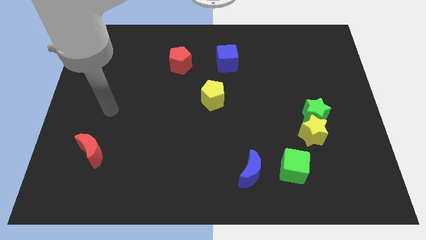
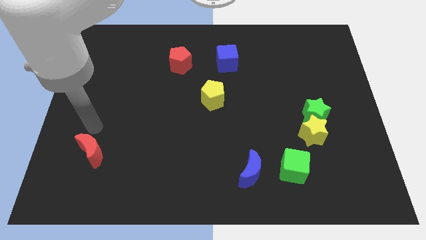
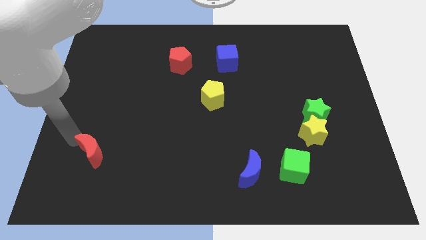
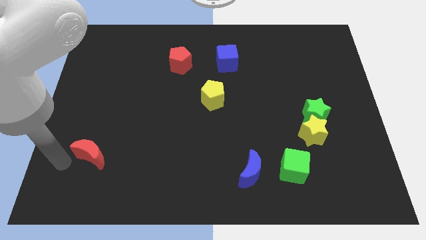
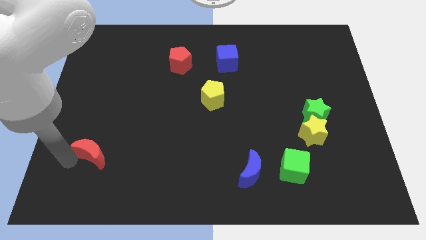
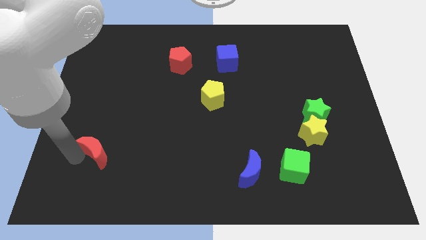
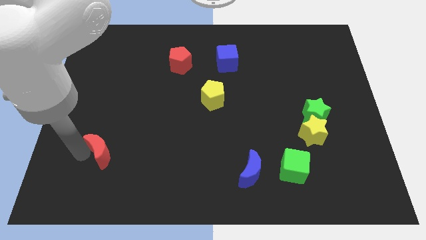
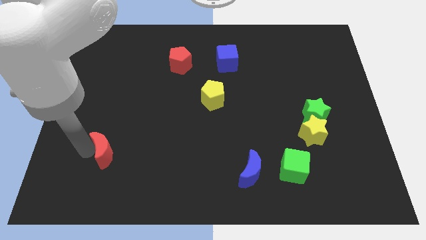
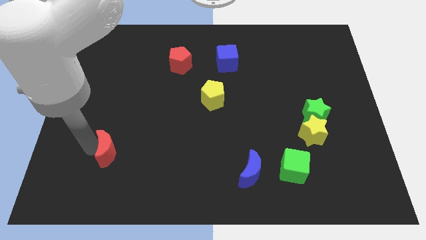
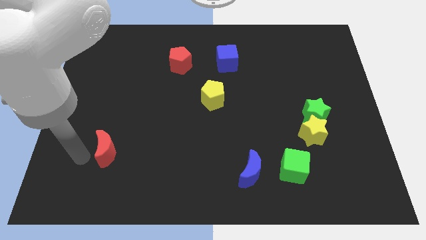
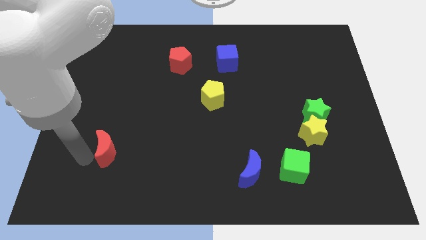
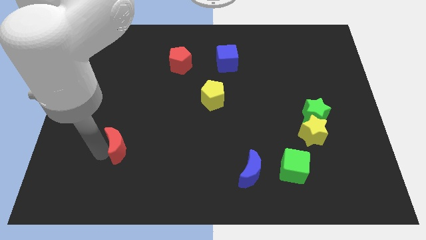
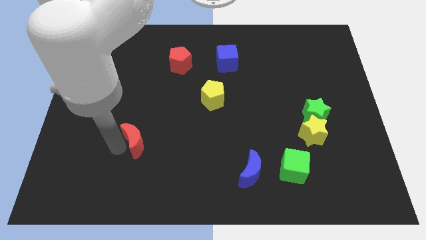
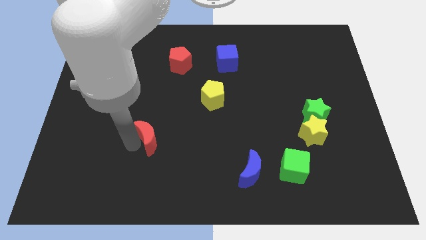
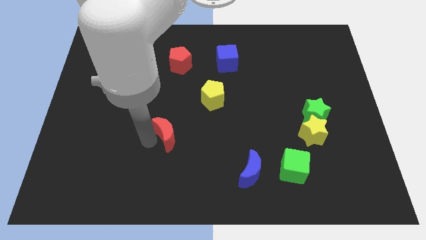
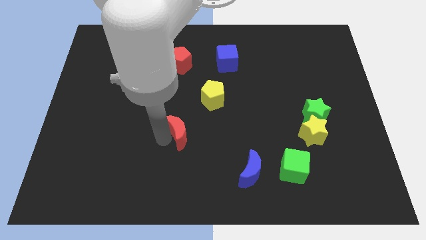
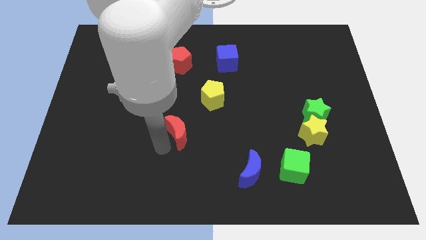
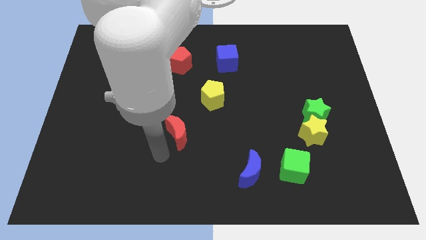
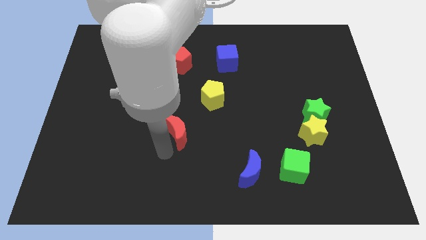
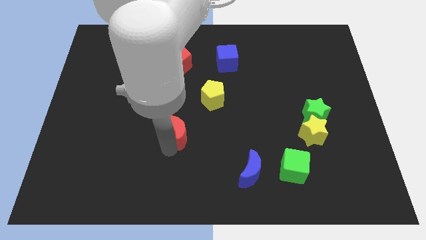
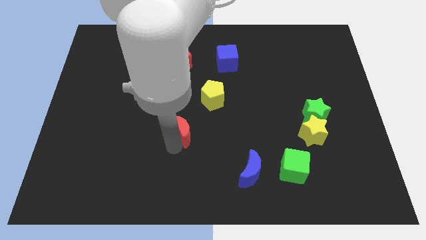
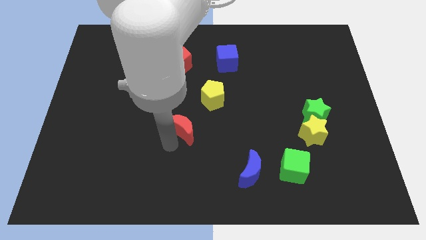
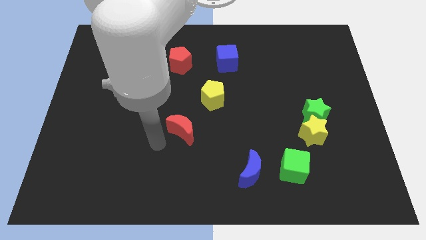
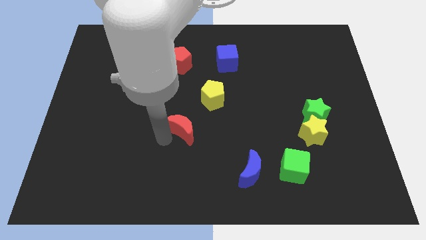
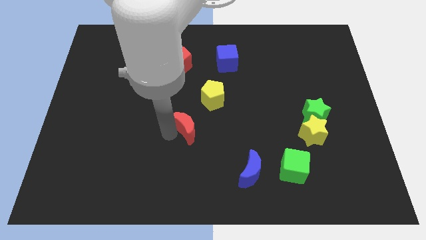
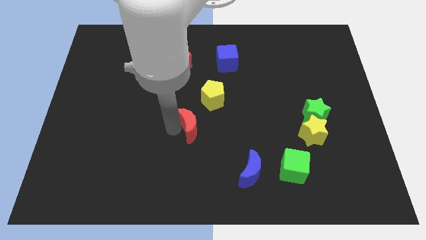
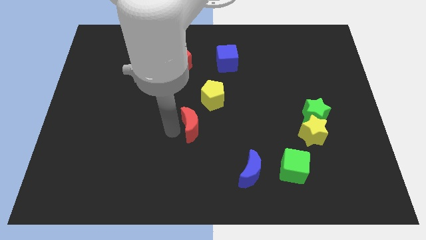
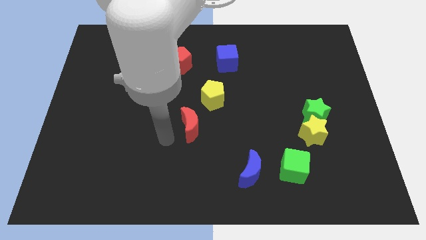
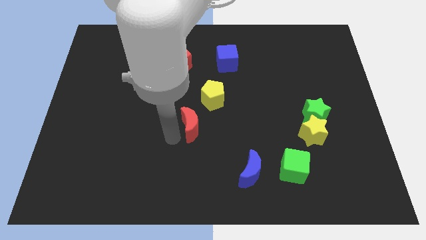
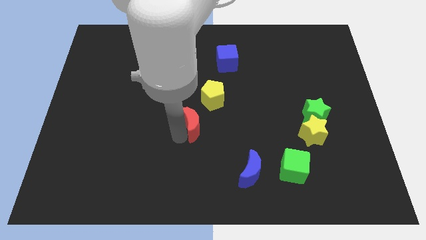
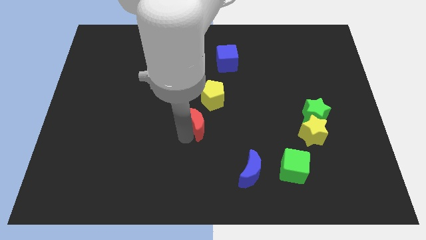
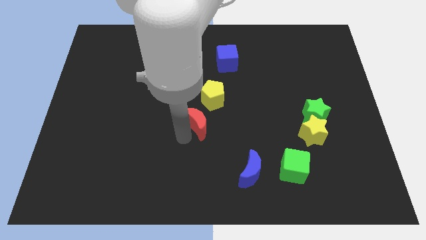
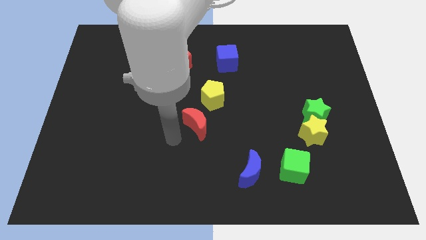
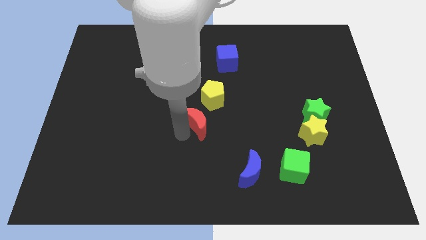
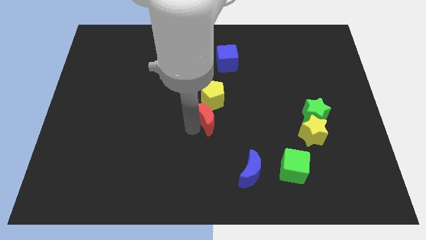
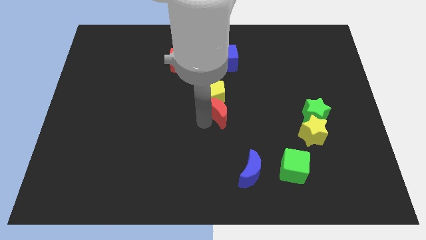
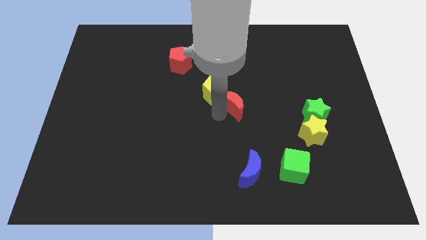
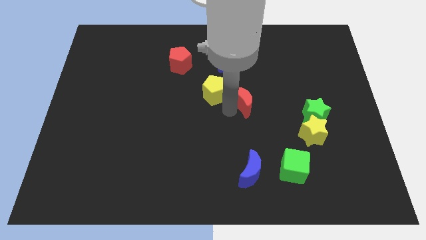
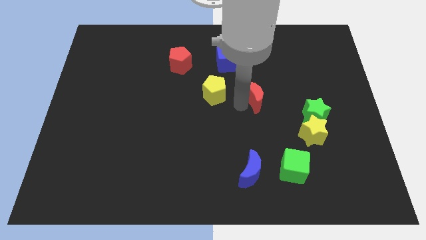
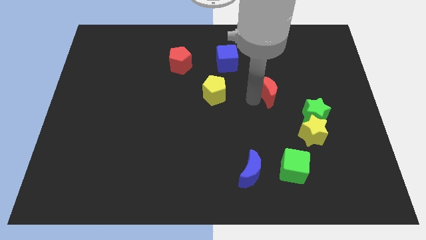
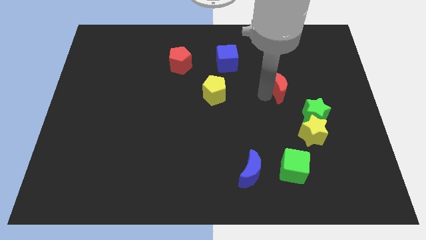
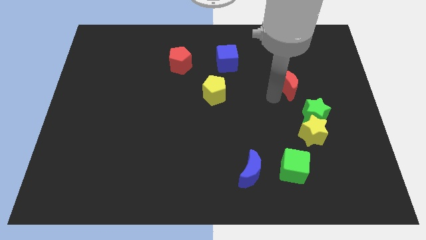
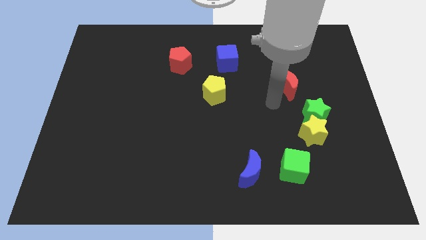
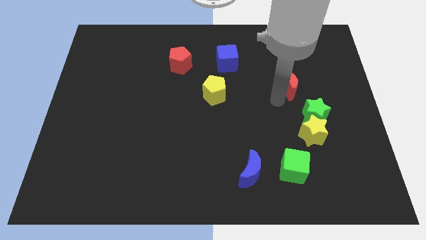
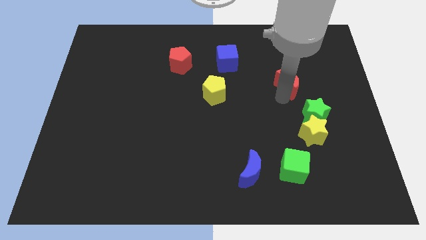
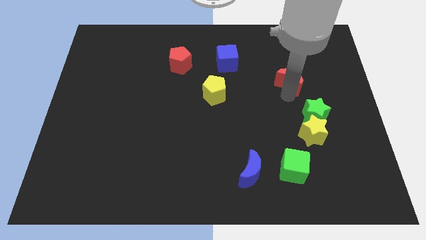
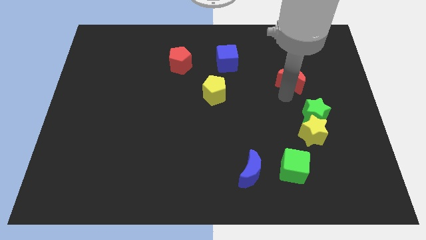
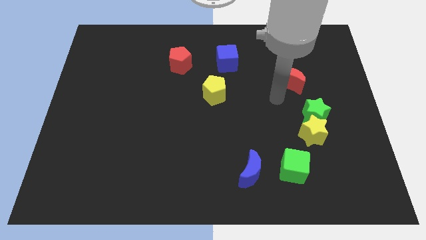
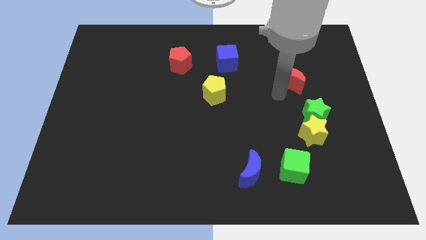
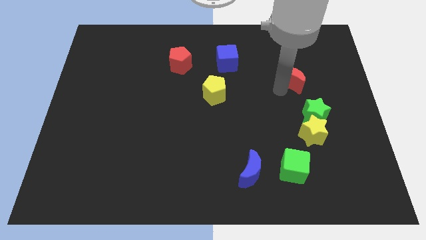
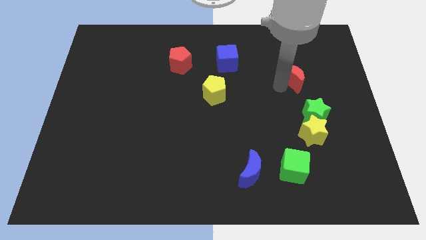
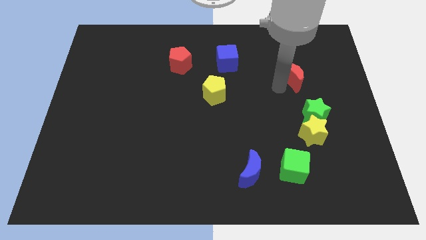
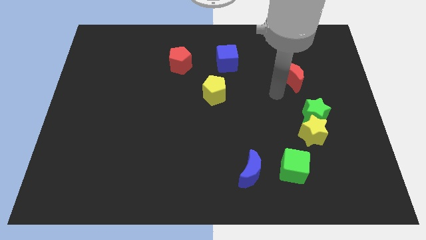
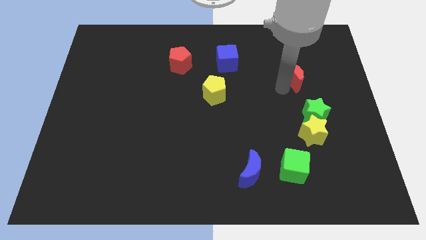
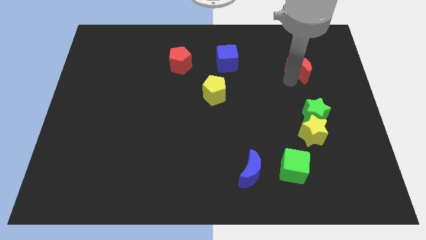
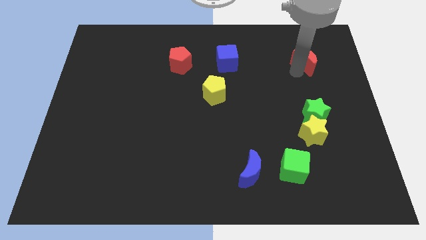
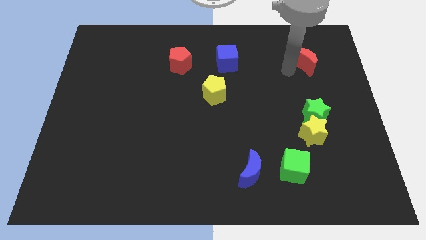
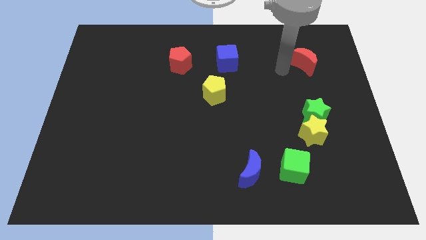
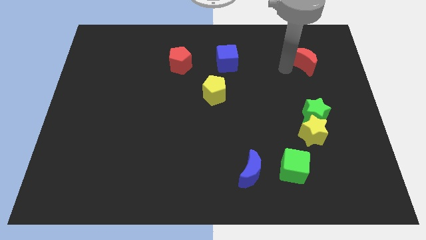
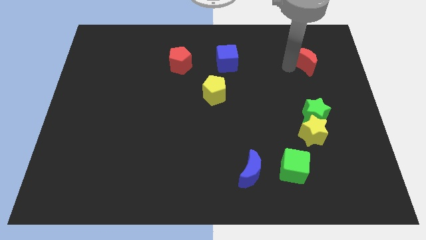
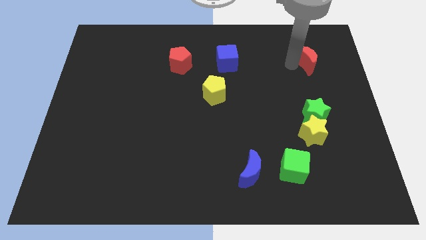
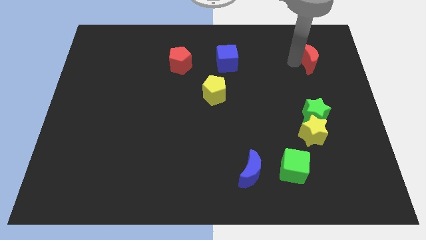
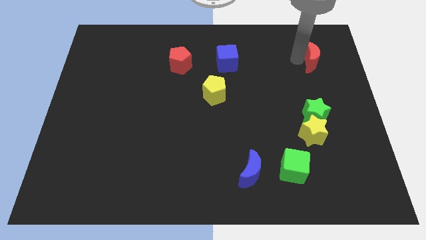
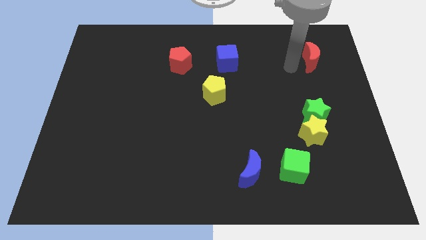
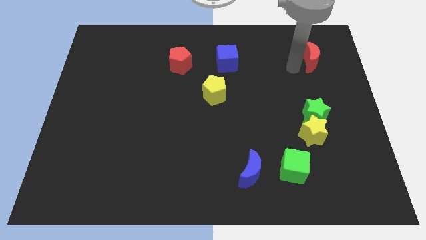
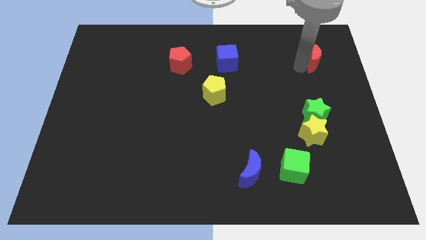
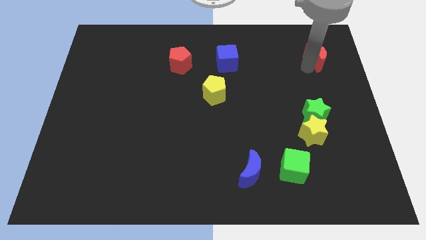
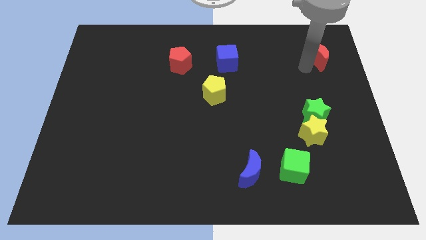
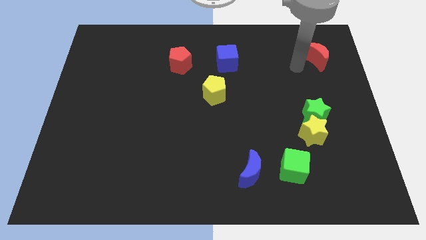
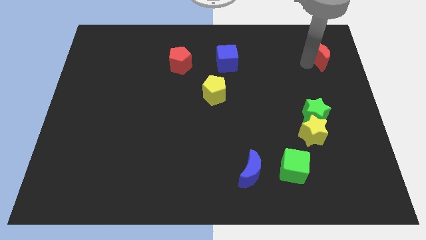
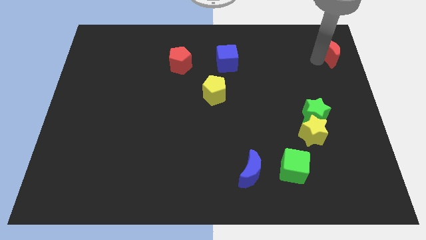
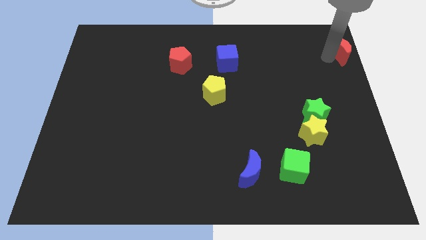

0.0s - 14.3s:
push the red moon to the upper right corner
